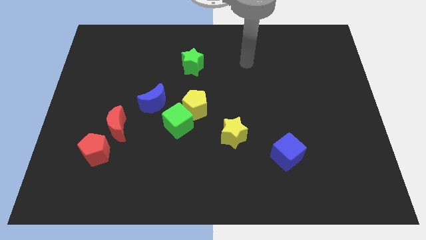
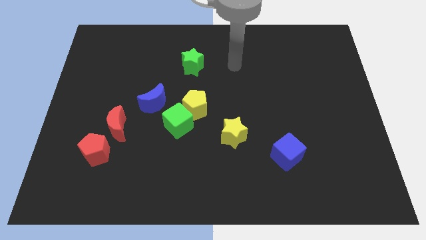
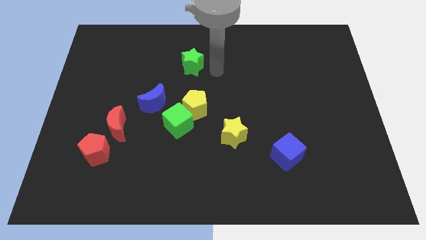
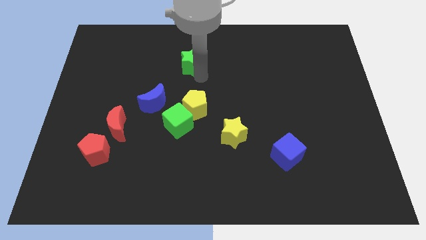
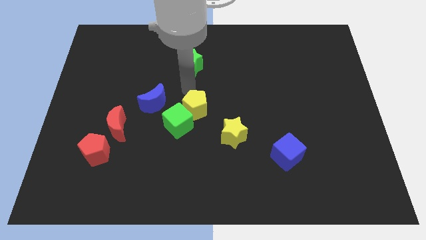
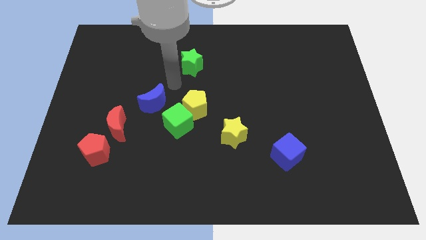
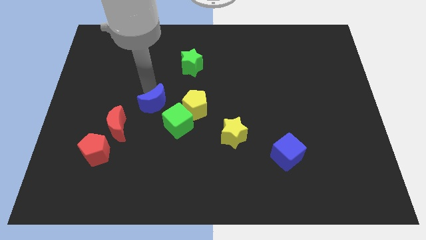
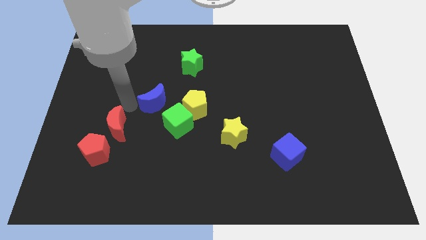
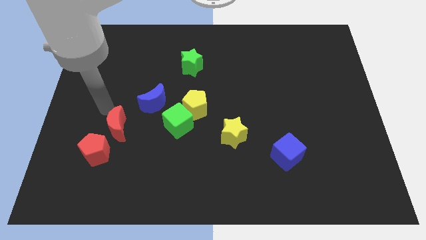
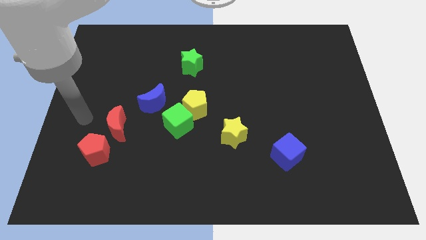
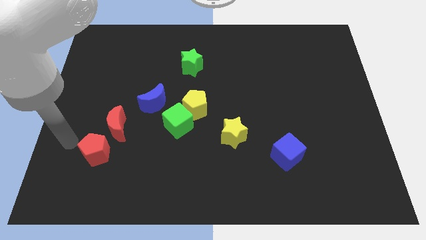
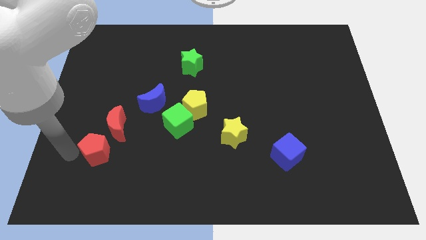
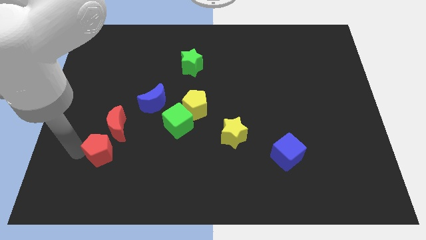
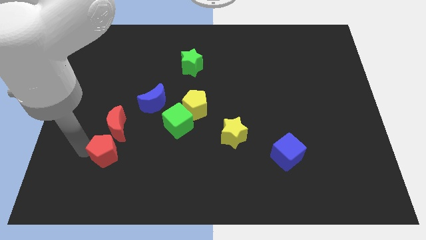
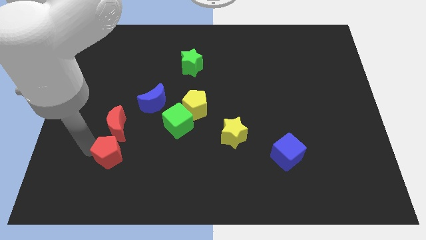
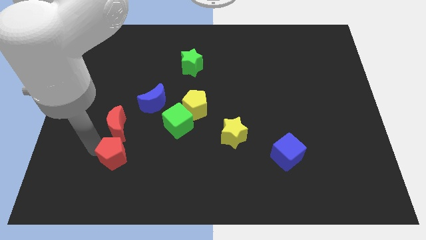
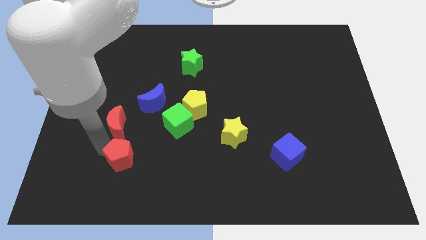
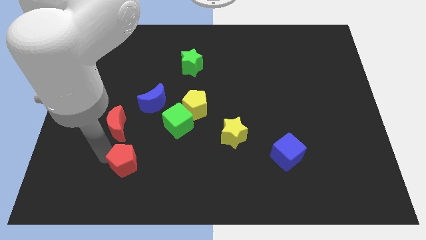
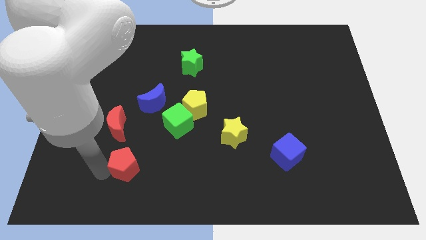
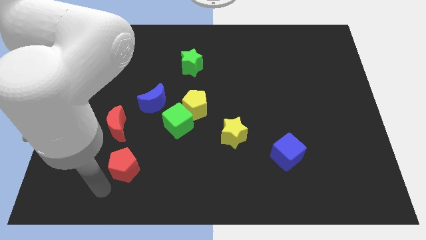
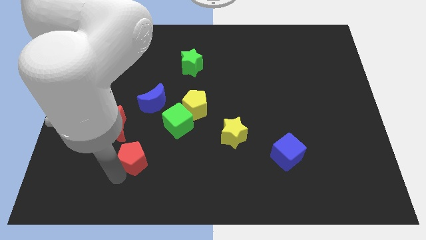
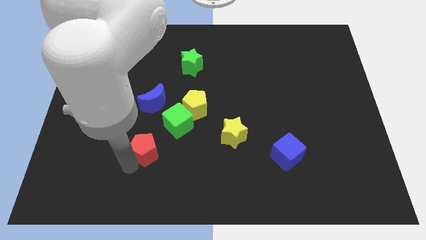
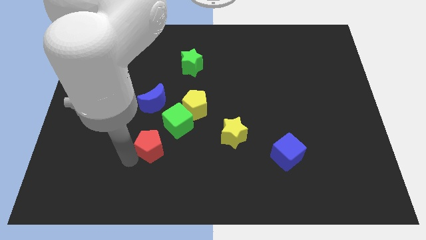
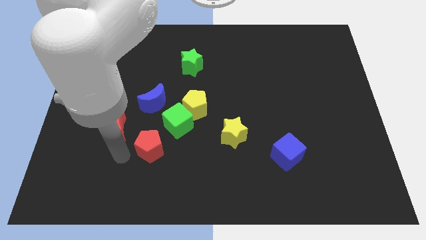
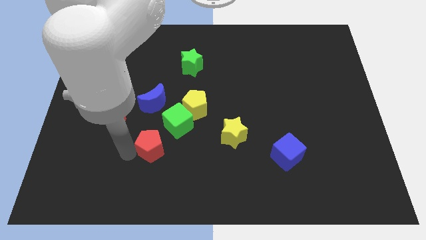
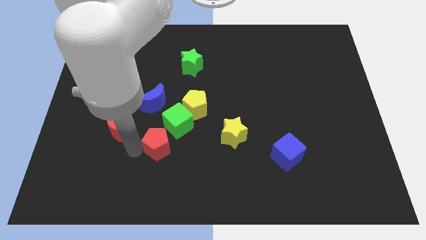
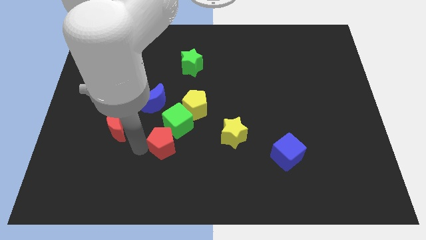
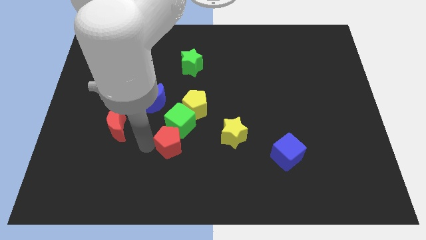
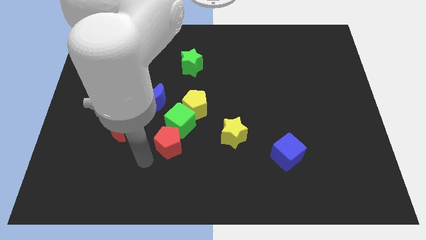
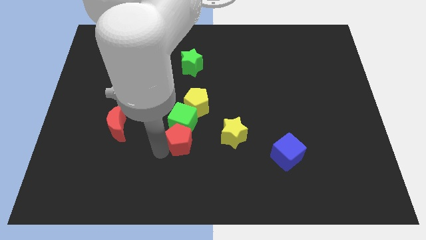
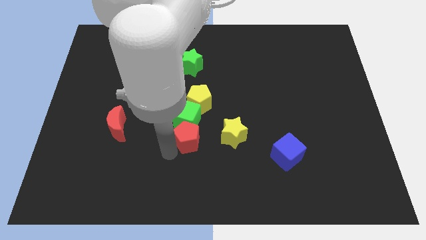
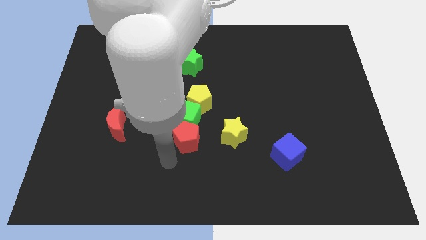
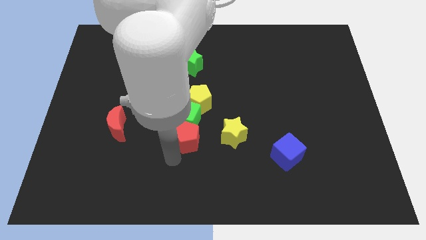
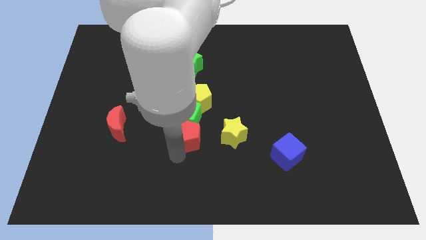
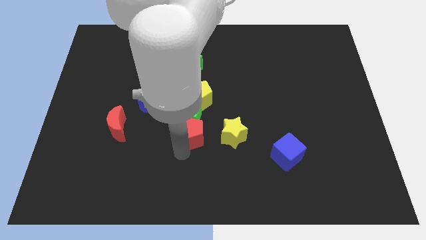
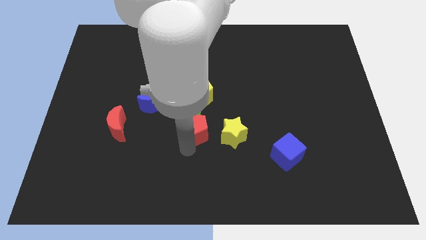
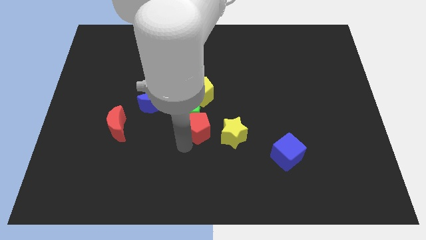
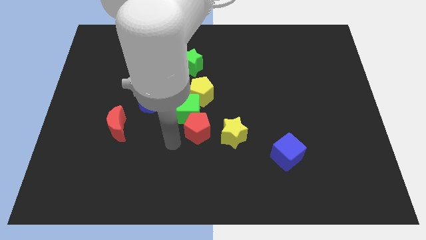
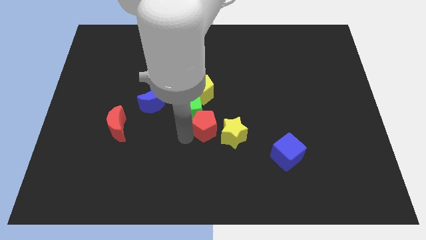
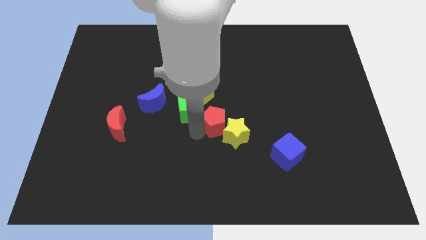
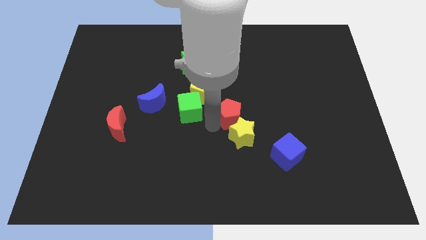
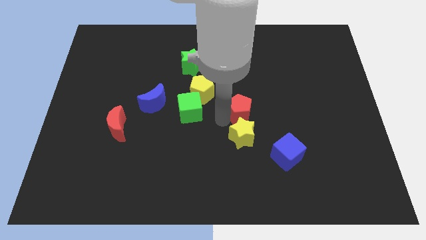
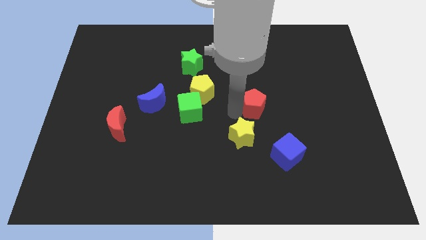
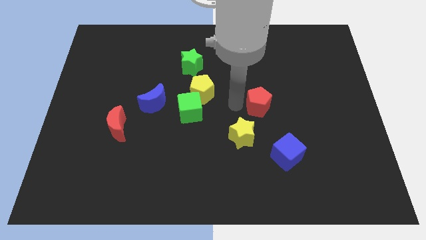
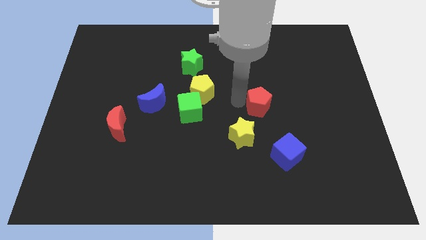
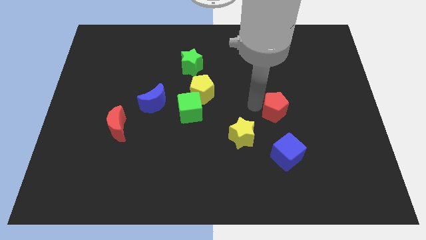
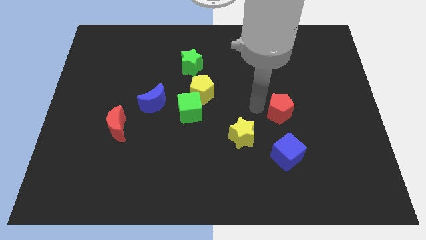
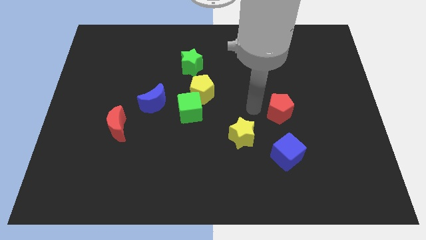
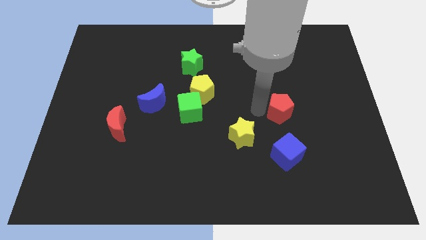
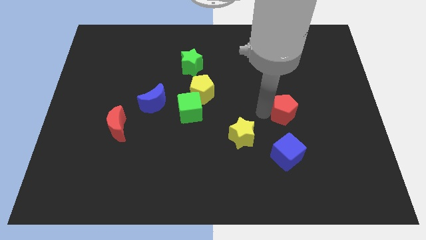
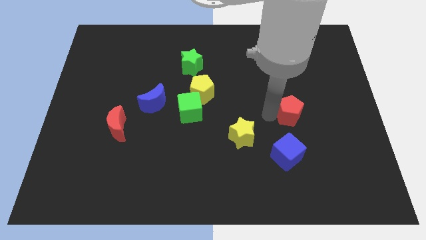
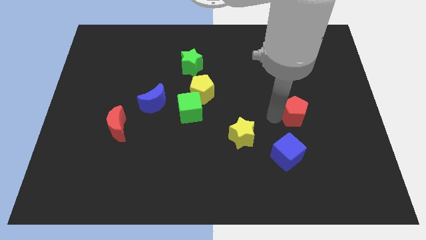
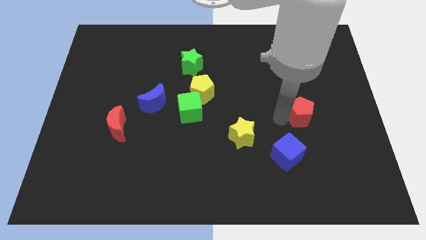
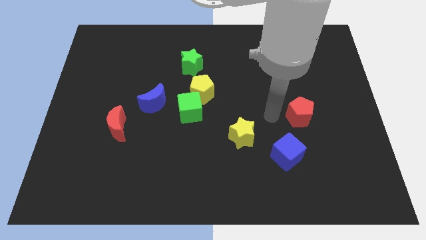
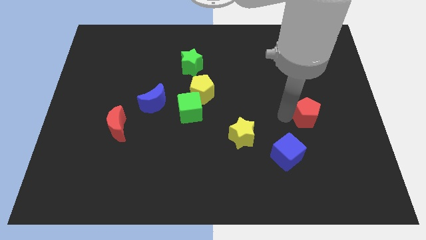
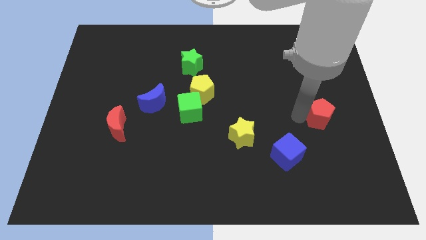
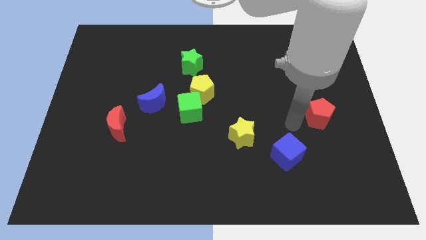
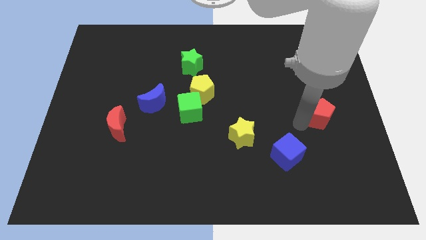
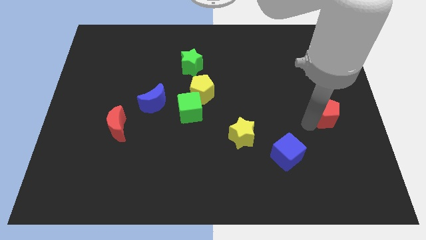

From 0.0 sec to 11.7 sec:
move the red pentagon to the right side of the board
